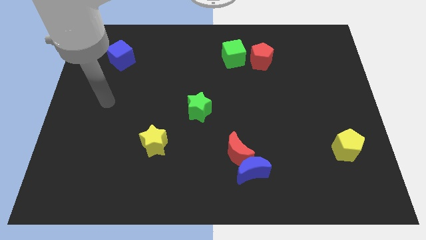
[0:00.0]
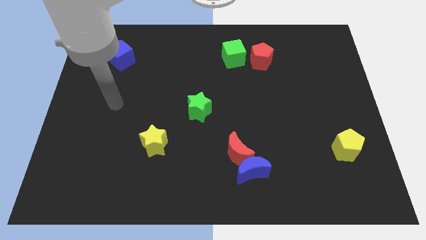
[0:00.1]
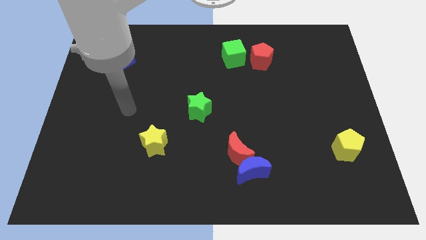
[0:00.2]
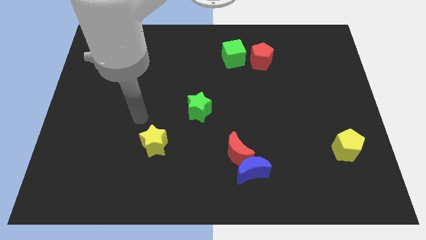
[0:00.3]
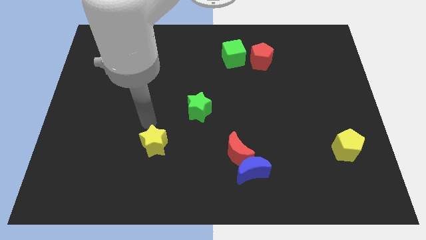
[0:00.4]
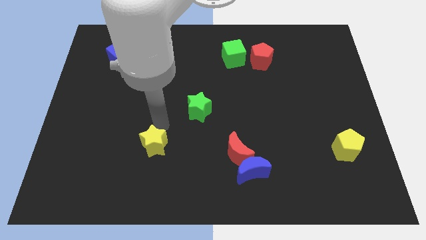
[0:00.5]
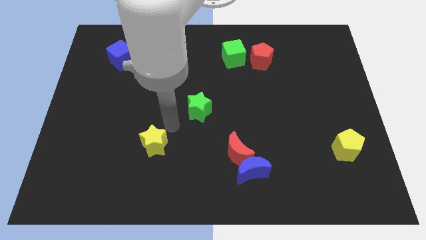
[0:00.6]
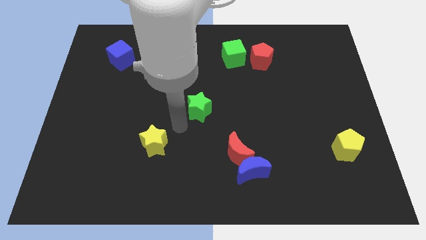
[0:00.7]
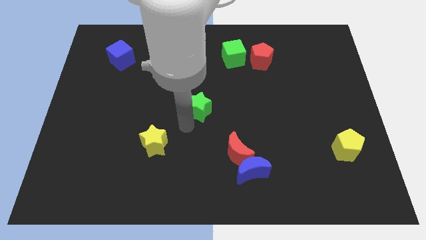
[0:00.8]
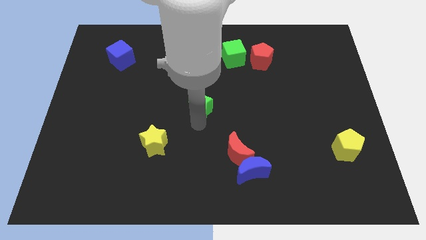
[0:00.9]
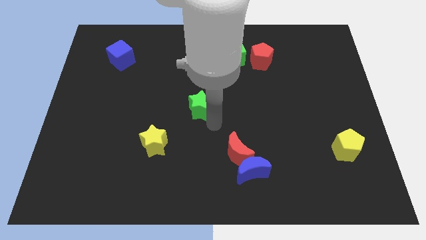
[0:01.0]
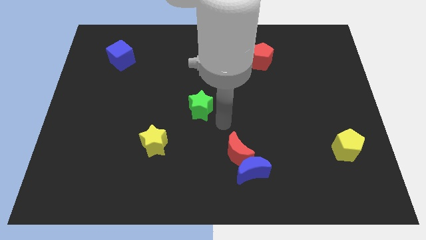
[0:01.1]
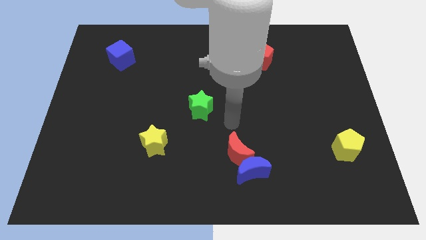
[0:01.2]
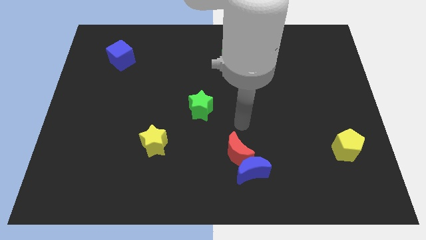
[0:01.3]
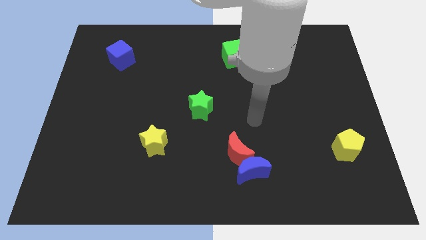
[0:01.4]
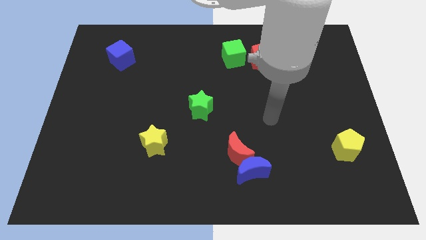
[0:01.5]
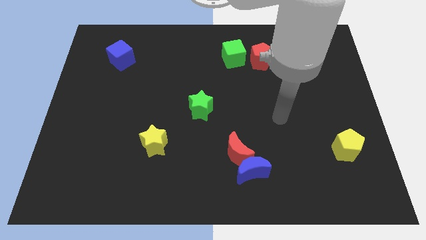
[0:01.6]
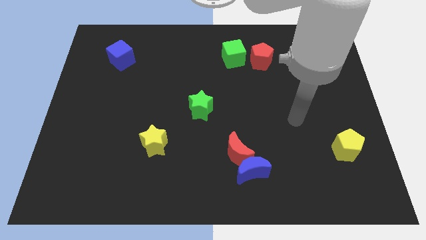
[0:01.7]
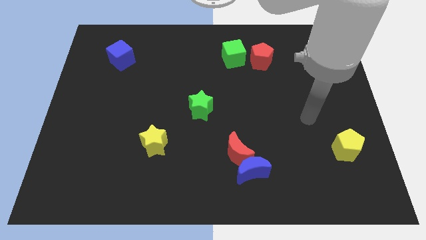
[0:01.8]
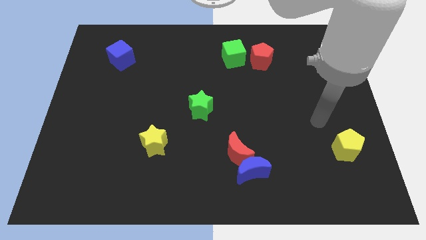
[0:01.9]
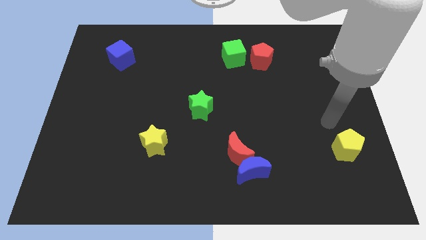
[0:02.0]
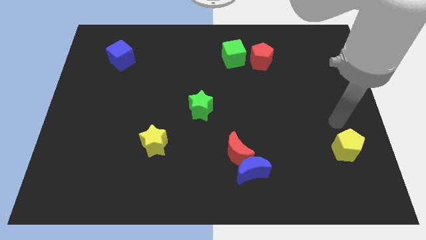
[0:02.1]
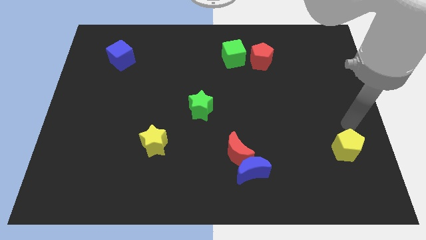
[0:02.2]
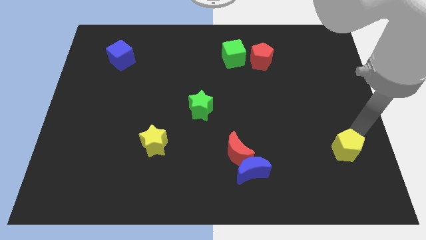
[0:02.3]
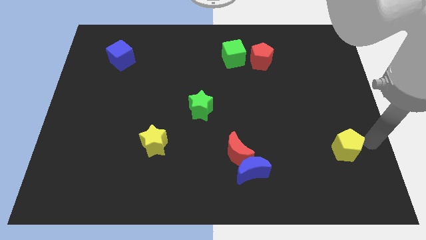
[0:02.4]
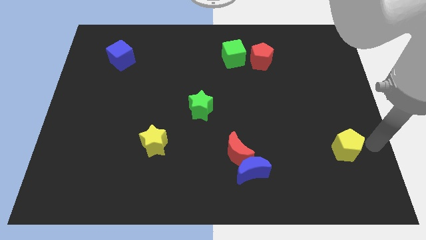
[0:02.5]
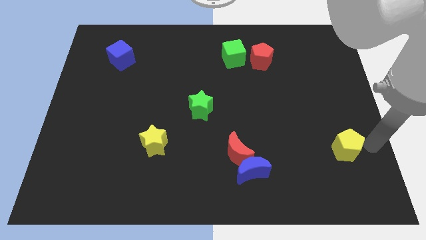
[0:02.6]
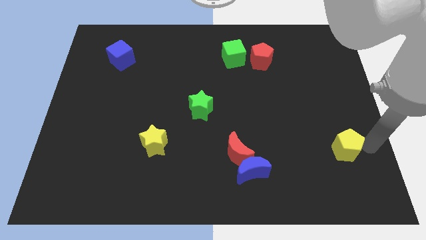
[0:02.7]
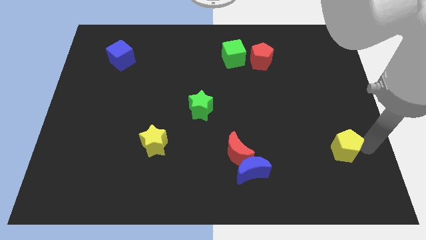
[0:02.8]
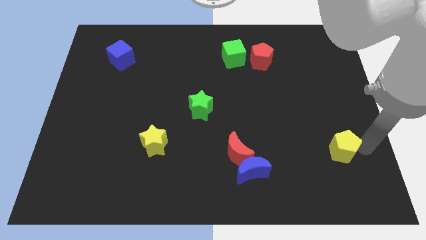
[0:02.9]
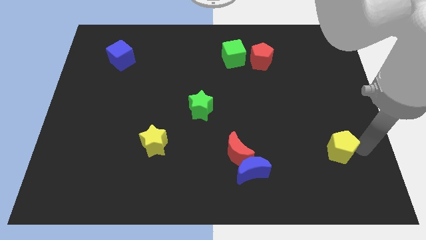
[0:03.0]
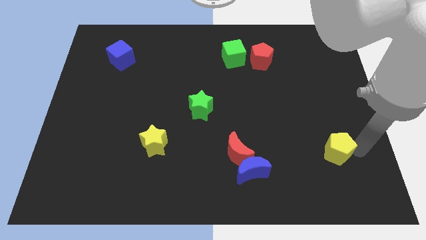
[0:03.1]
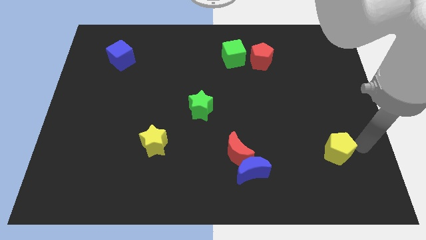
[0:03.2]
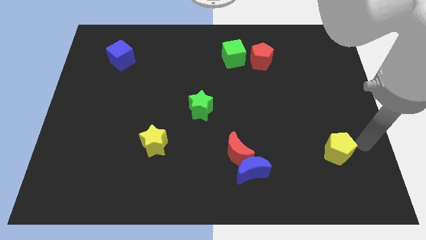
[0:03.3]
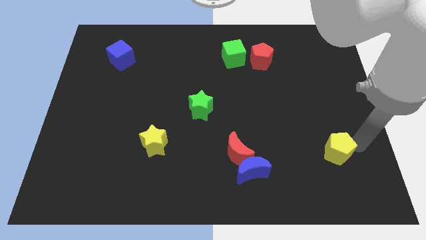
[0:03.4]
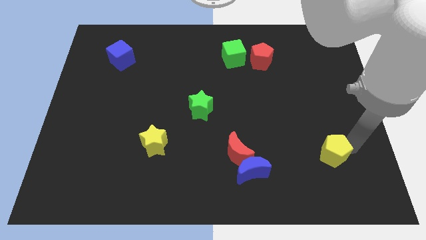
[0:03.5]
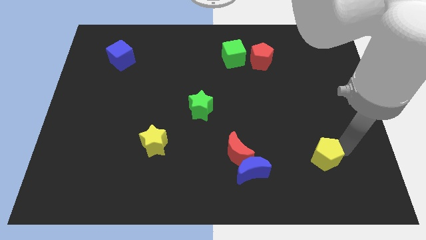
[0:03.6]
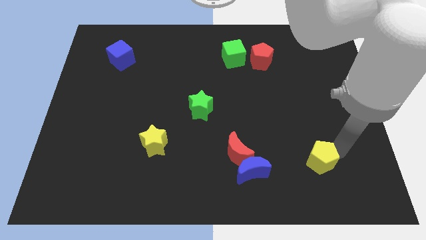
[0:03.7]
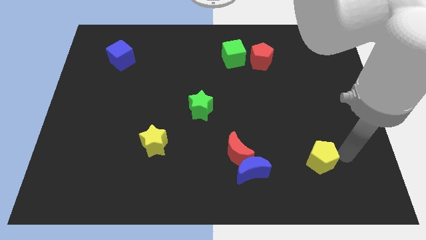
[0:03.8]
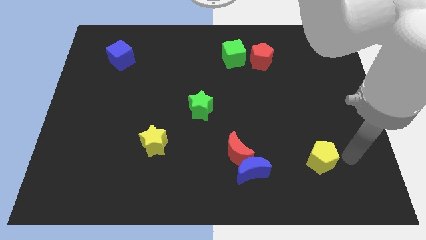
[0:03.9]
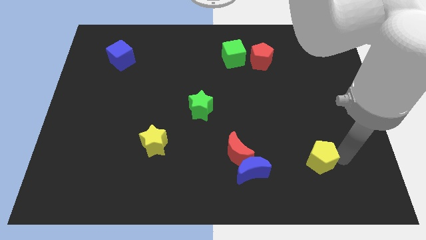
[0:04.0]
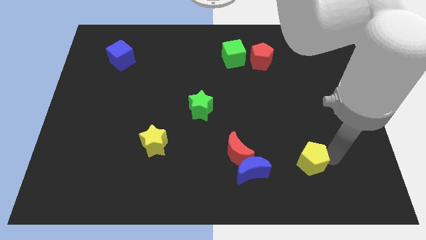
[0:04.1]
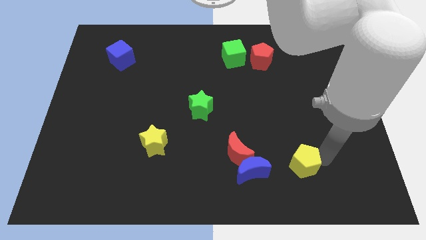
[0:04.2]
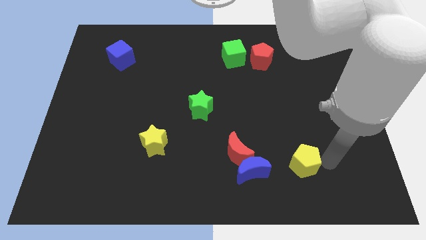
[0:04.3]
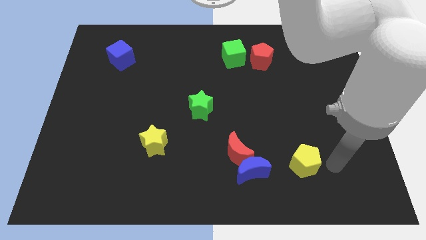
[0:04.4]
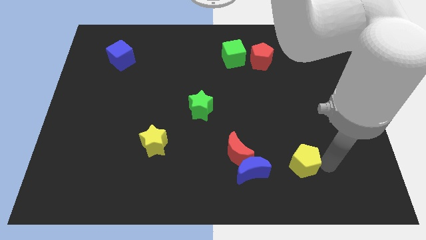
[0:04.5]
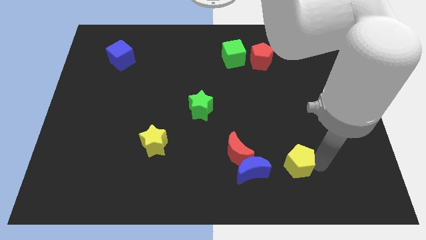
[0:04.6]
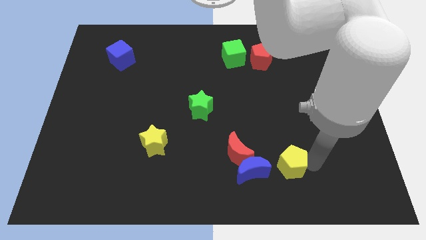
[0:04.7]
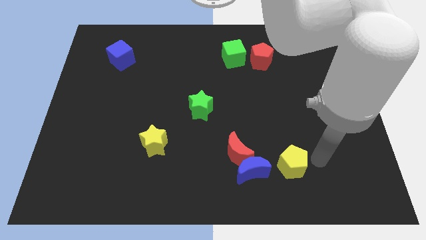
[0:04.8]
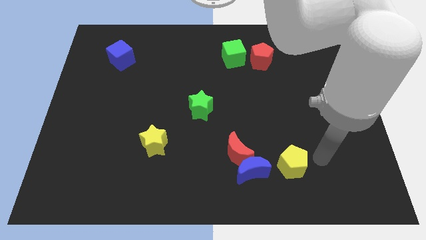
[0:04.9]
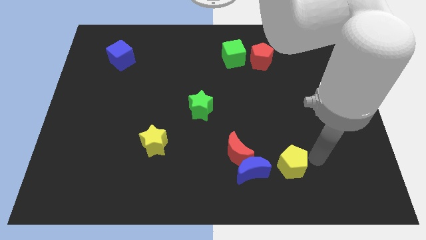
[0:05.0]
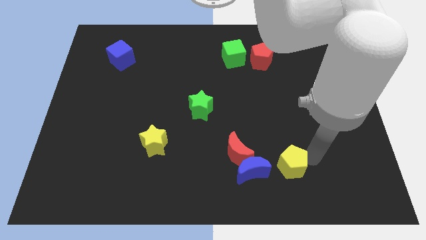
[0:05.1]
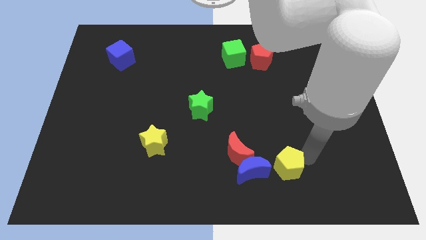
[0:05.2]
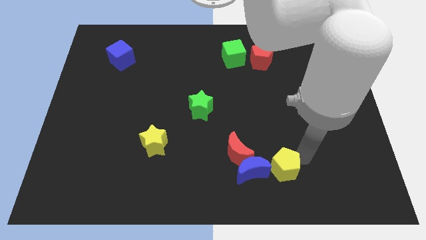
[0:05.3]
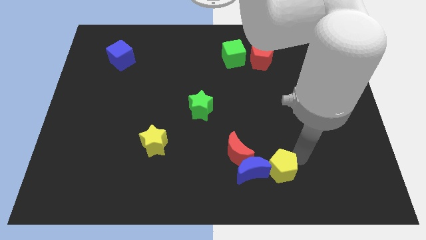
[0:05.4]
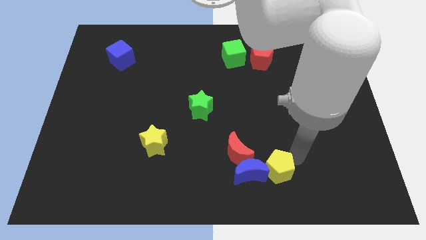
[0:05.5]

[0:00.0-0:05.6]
move the yellow pentagon next to the blue moon

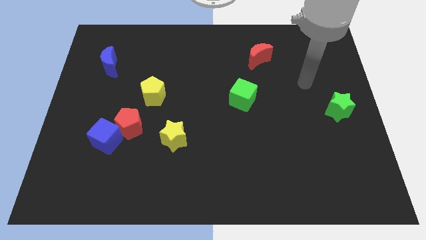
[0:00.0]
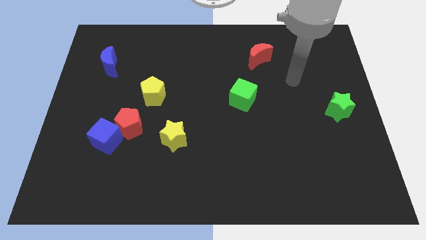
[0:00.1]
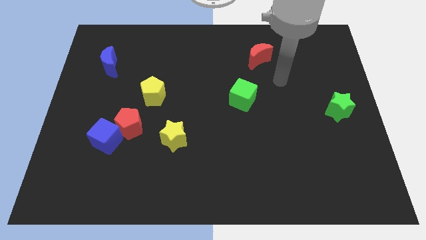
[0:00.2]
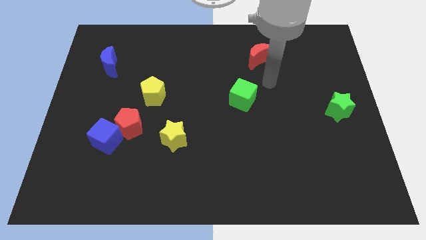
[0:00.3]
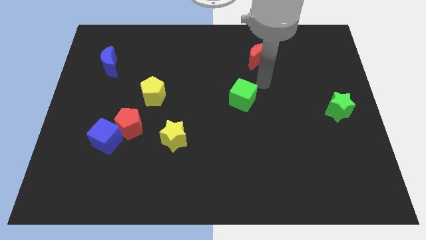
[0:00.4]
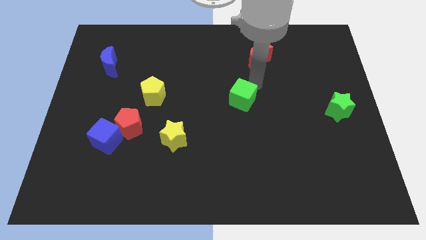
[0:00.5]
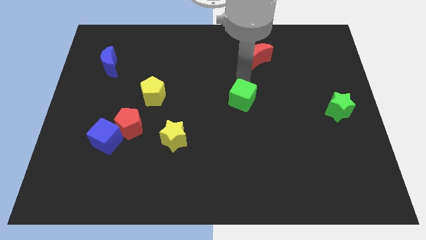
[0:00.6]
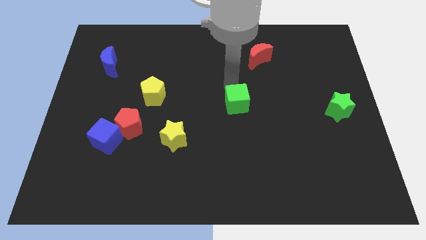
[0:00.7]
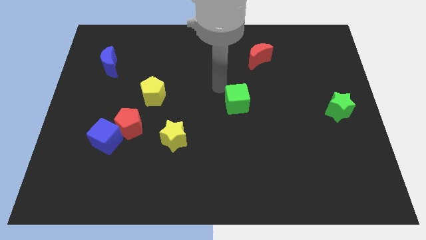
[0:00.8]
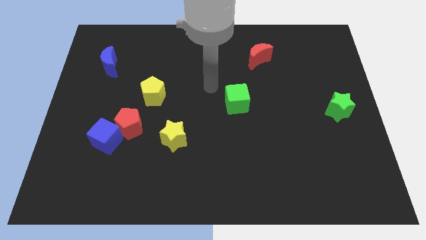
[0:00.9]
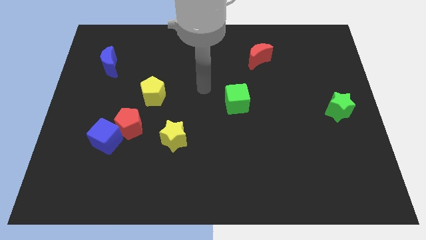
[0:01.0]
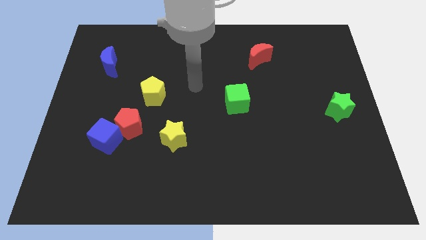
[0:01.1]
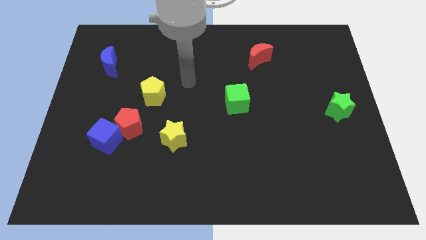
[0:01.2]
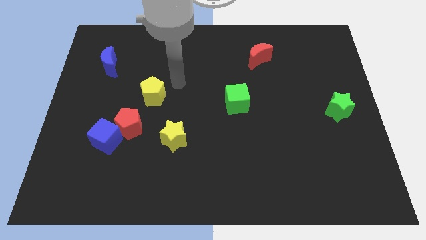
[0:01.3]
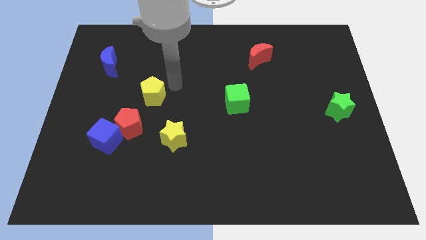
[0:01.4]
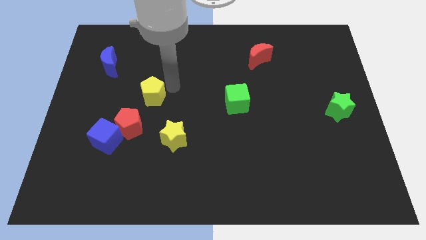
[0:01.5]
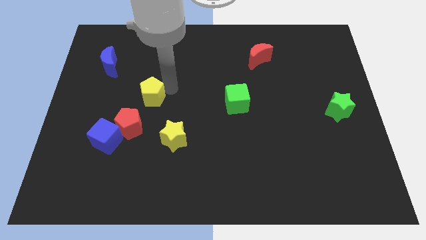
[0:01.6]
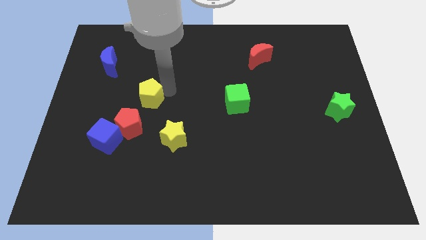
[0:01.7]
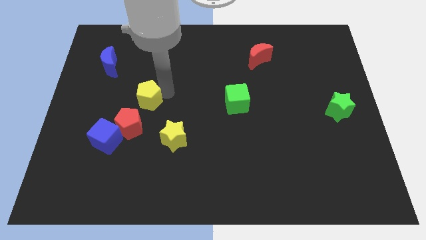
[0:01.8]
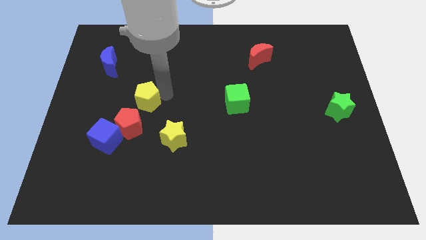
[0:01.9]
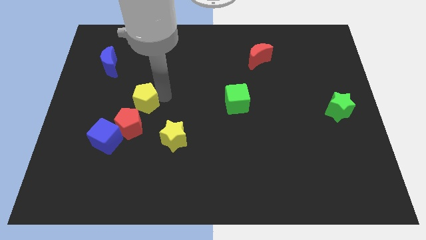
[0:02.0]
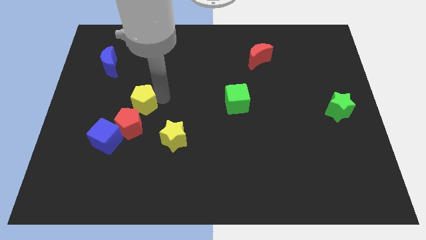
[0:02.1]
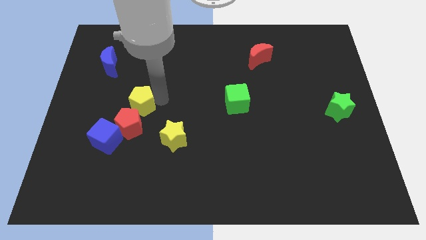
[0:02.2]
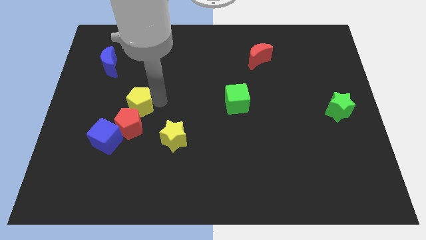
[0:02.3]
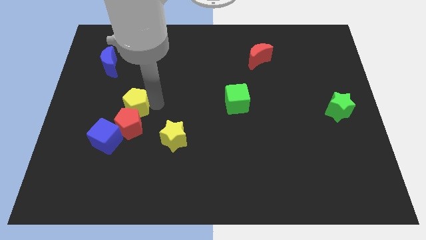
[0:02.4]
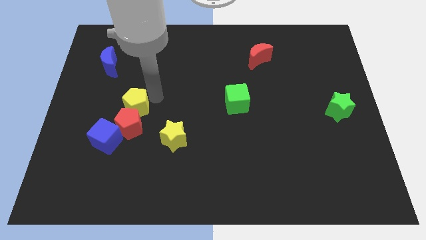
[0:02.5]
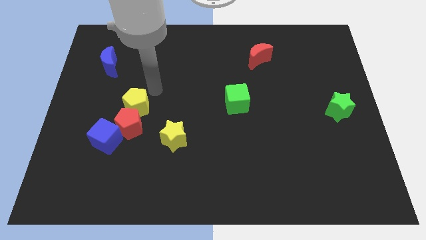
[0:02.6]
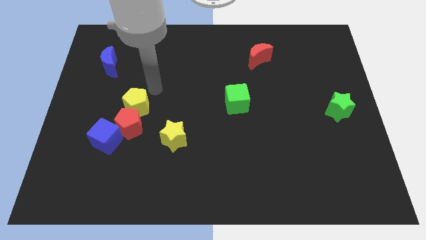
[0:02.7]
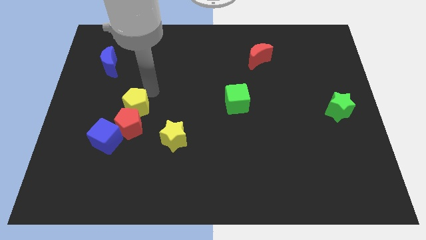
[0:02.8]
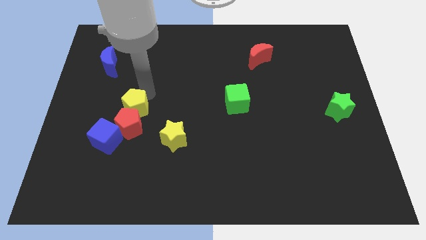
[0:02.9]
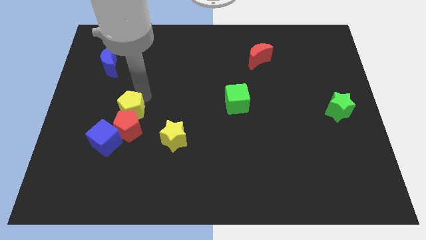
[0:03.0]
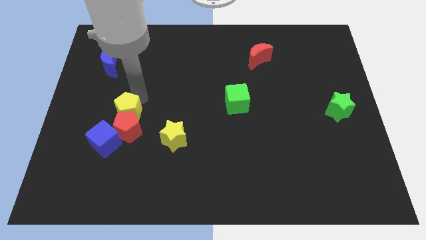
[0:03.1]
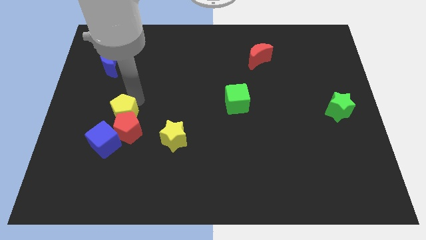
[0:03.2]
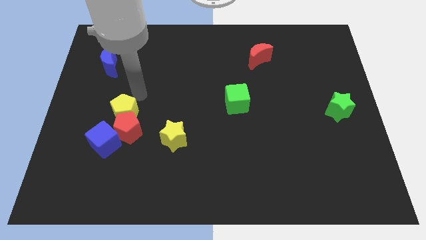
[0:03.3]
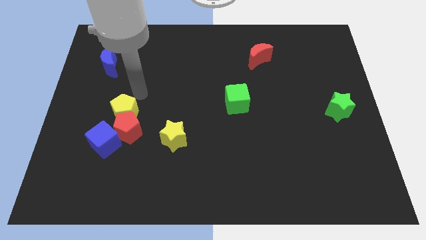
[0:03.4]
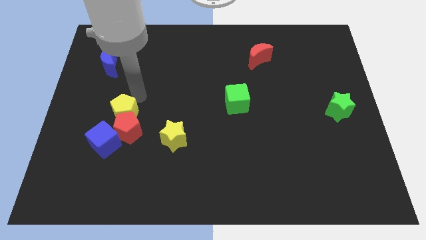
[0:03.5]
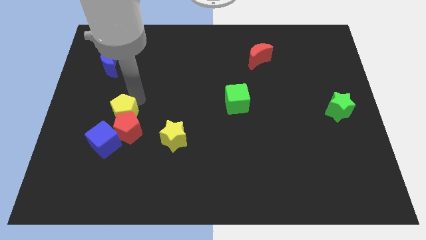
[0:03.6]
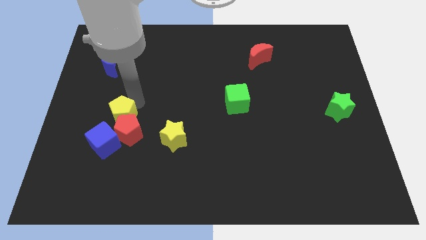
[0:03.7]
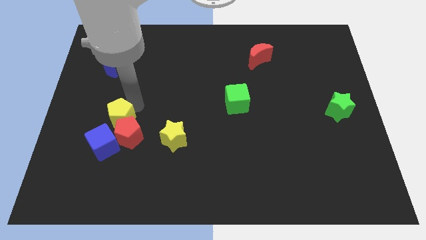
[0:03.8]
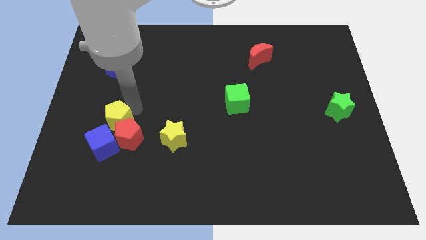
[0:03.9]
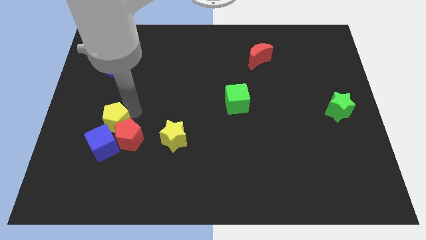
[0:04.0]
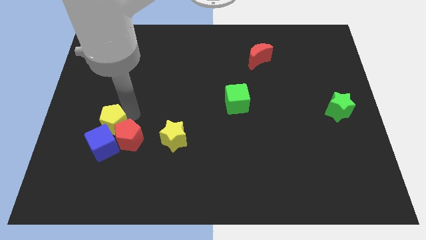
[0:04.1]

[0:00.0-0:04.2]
put the yellow pentagon towards the blue cube
